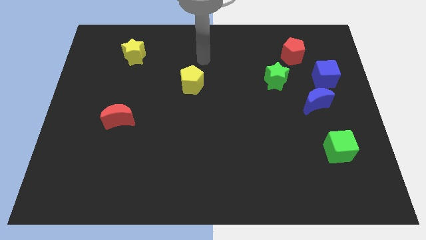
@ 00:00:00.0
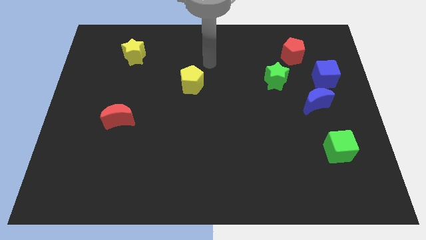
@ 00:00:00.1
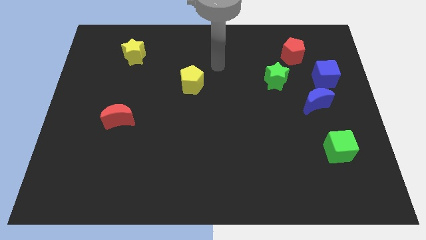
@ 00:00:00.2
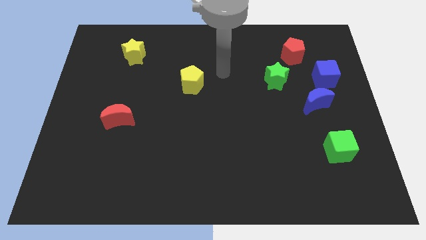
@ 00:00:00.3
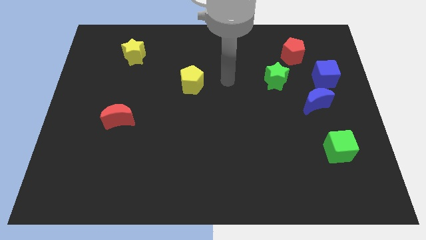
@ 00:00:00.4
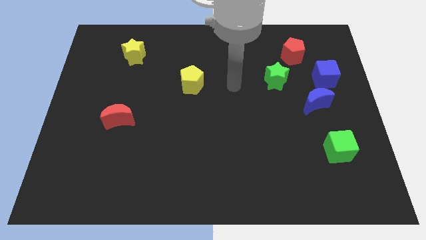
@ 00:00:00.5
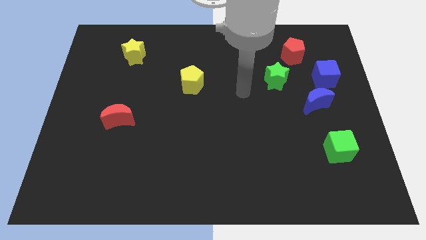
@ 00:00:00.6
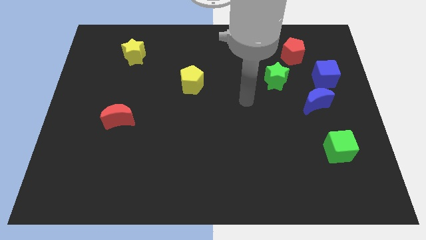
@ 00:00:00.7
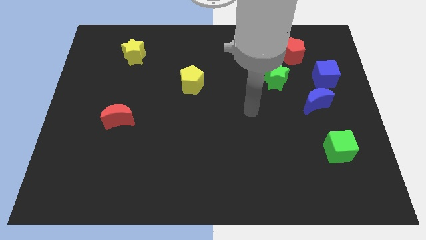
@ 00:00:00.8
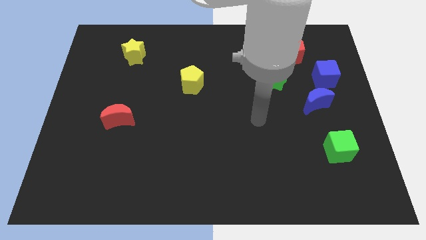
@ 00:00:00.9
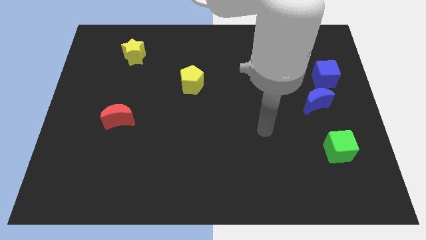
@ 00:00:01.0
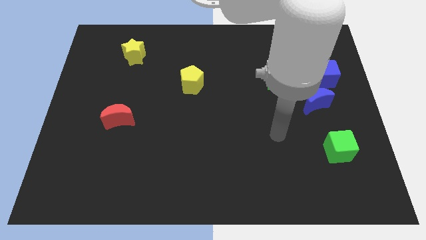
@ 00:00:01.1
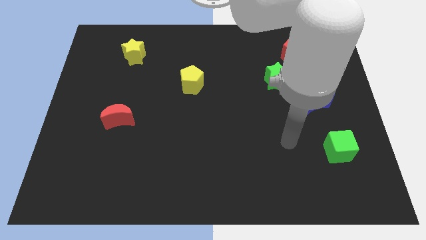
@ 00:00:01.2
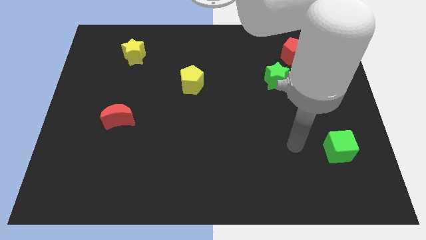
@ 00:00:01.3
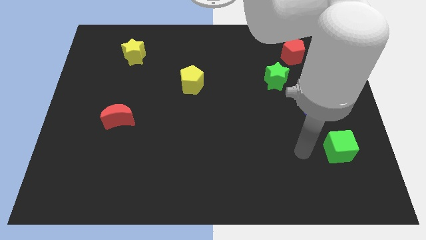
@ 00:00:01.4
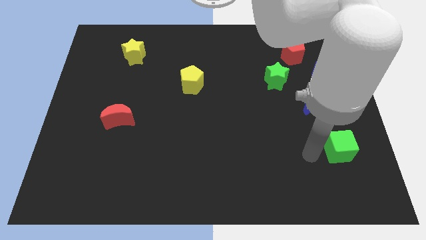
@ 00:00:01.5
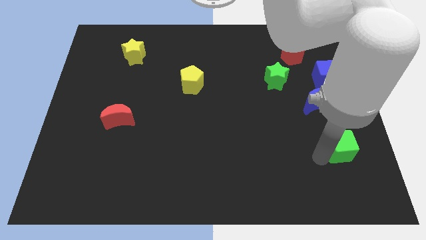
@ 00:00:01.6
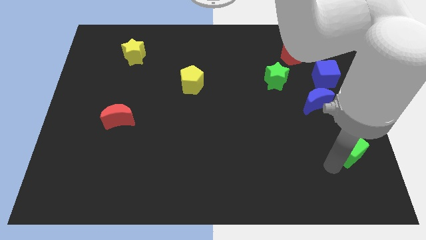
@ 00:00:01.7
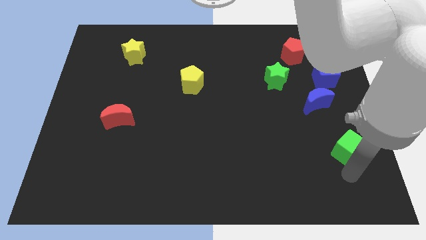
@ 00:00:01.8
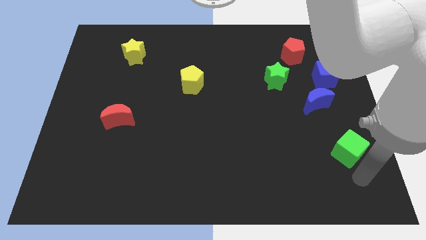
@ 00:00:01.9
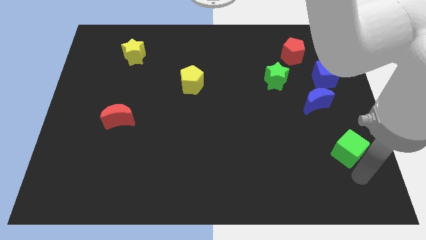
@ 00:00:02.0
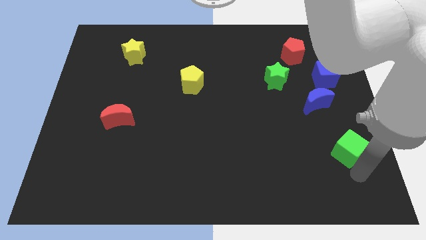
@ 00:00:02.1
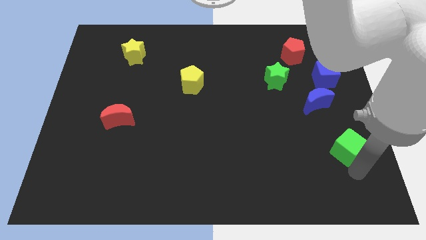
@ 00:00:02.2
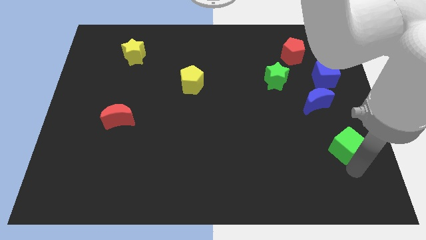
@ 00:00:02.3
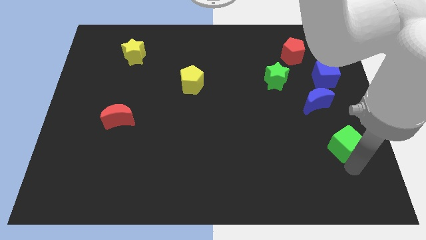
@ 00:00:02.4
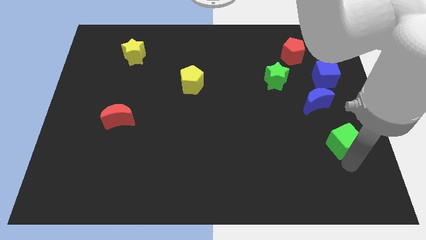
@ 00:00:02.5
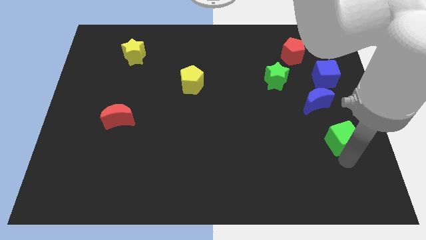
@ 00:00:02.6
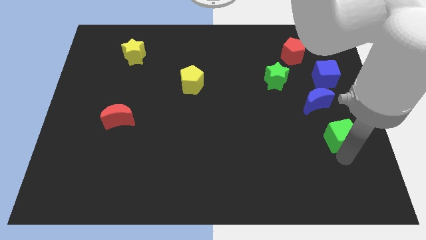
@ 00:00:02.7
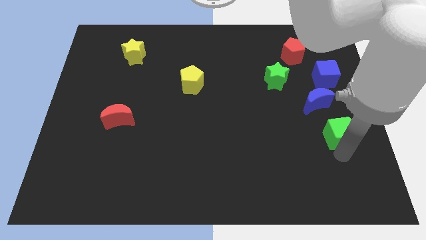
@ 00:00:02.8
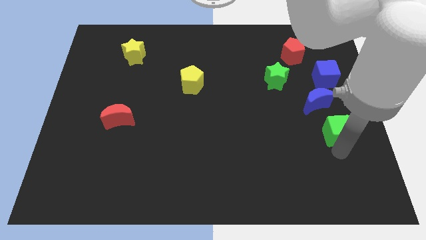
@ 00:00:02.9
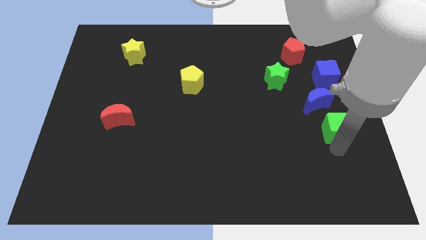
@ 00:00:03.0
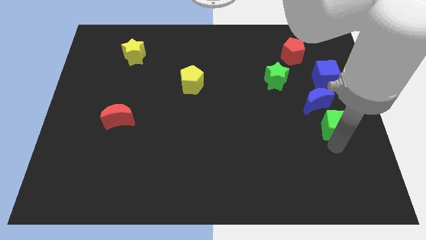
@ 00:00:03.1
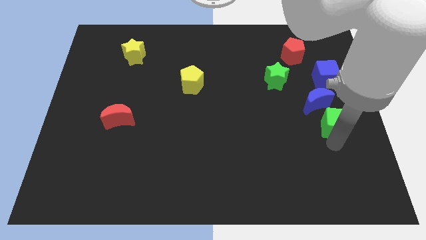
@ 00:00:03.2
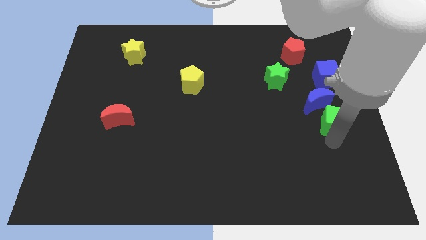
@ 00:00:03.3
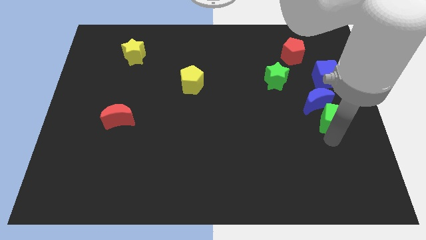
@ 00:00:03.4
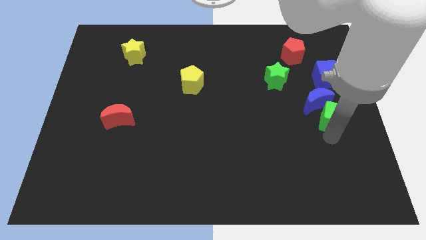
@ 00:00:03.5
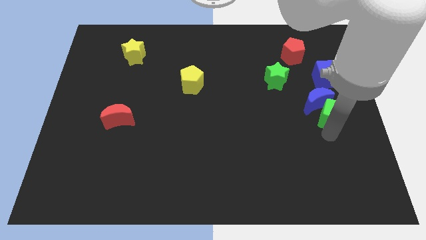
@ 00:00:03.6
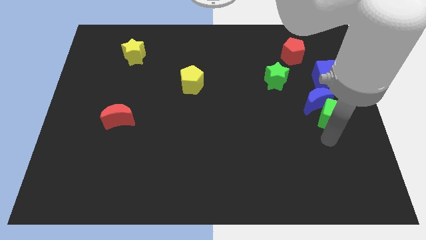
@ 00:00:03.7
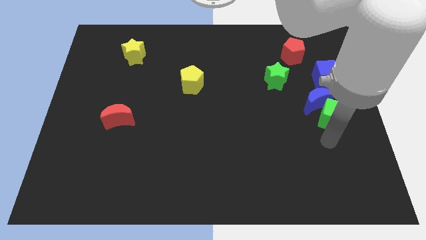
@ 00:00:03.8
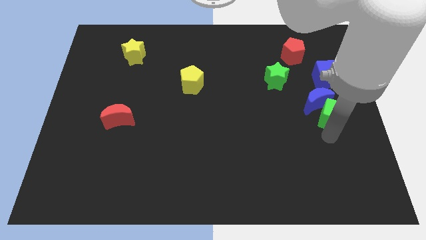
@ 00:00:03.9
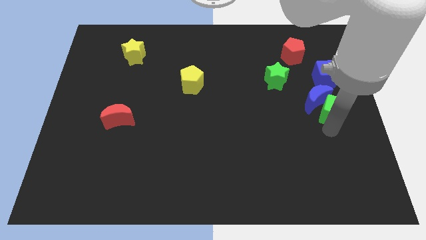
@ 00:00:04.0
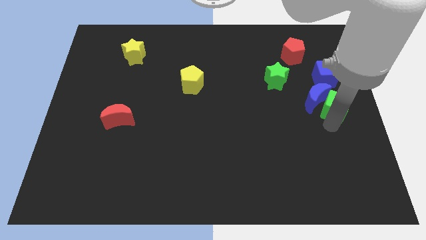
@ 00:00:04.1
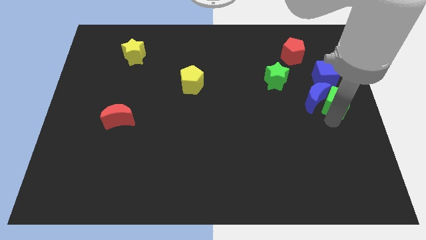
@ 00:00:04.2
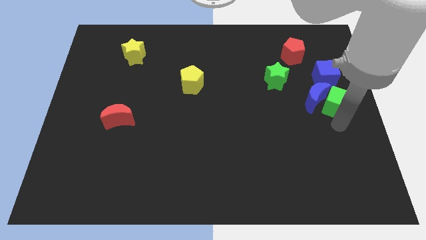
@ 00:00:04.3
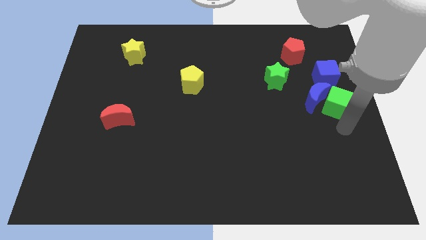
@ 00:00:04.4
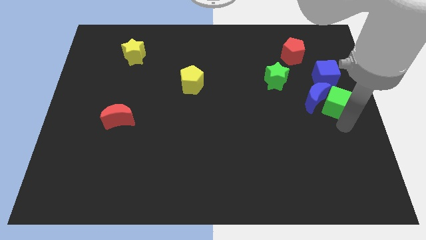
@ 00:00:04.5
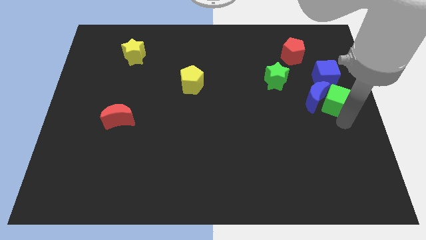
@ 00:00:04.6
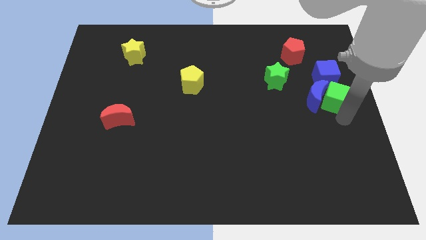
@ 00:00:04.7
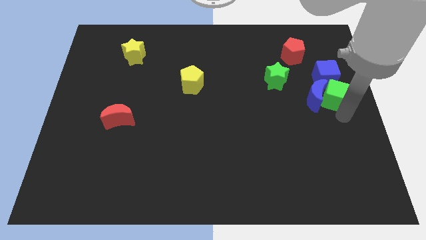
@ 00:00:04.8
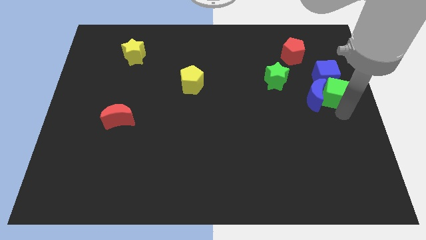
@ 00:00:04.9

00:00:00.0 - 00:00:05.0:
push the green cube towards the blue cube
